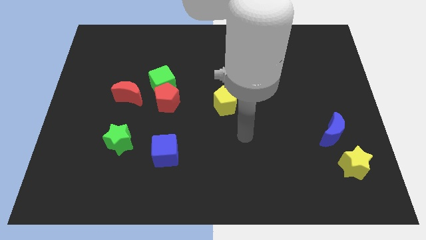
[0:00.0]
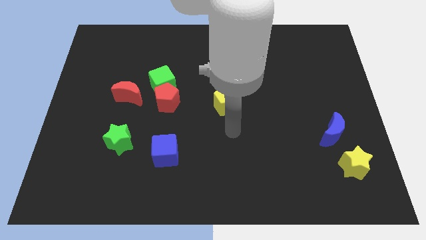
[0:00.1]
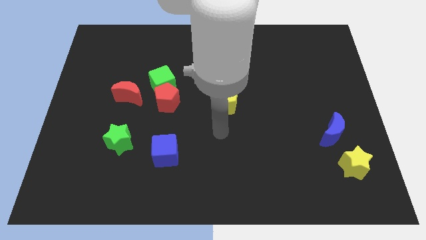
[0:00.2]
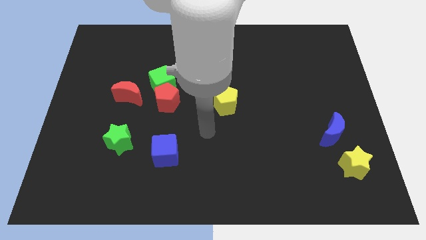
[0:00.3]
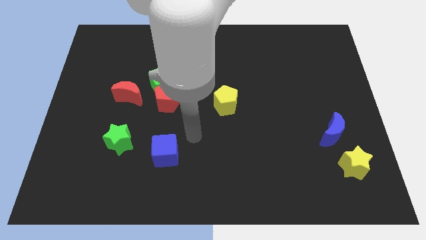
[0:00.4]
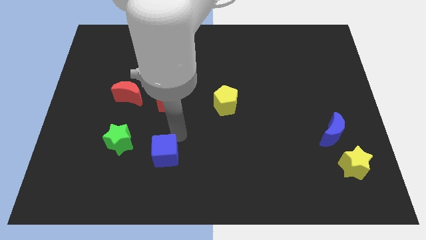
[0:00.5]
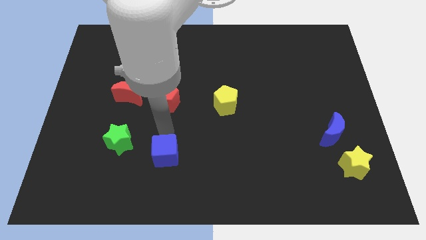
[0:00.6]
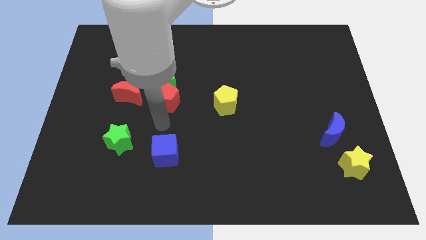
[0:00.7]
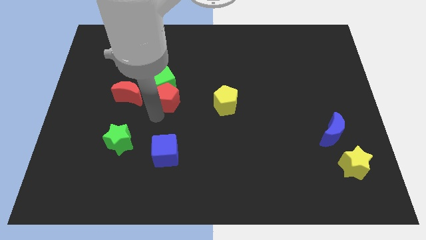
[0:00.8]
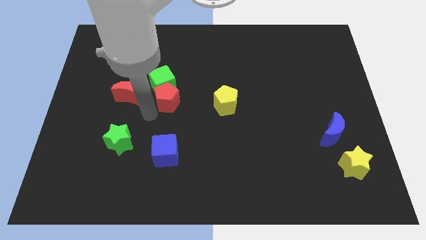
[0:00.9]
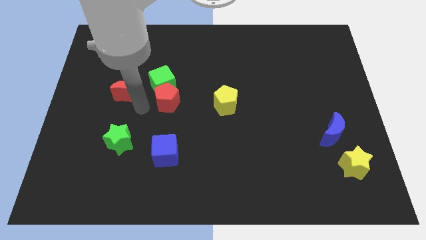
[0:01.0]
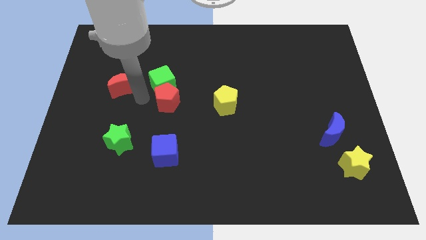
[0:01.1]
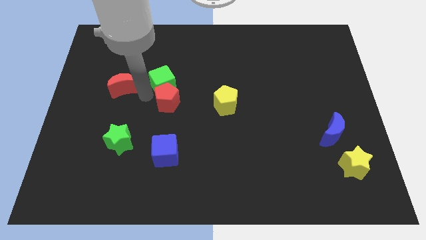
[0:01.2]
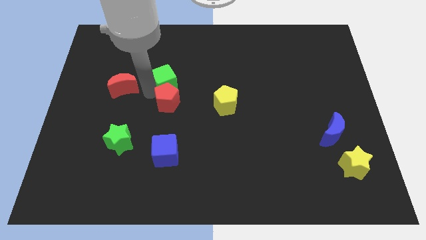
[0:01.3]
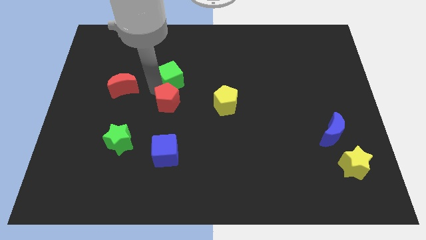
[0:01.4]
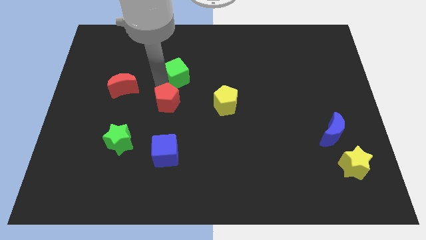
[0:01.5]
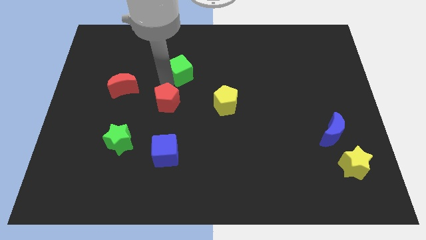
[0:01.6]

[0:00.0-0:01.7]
move the green cube away from the red pentagon and red moon

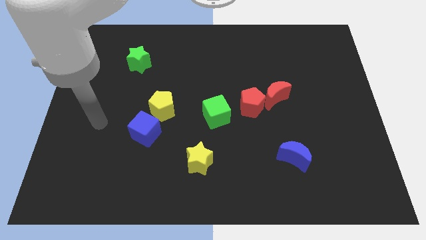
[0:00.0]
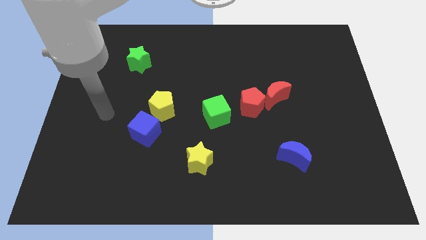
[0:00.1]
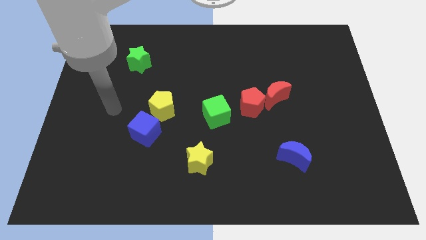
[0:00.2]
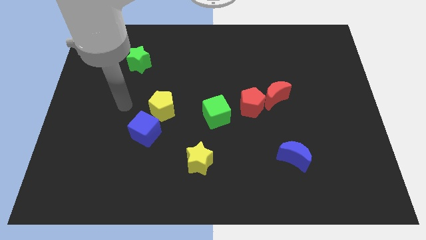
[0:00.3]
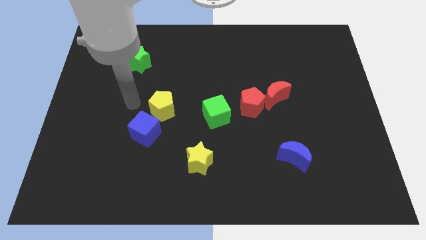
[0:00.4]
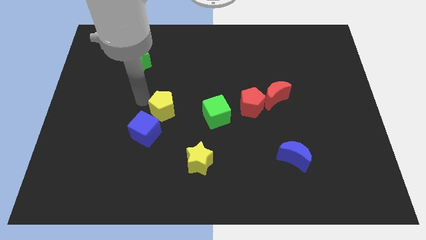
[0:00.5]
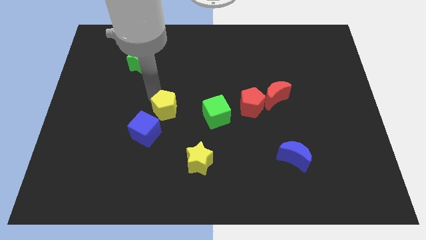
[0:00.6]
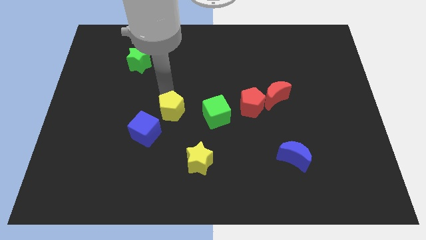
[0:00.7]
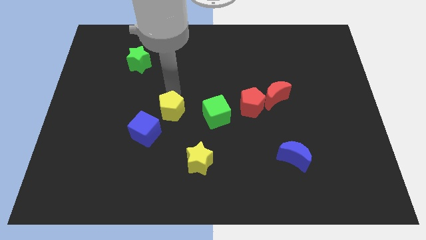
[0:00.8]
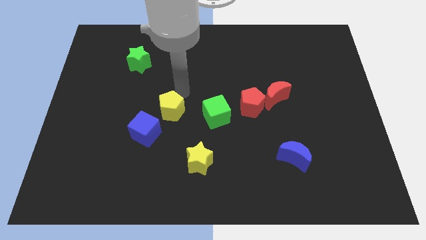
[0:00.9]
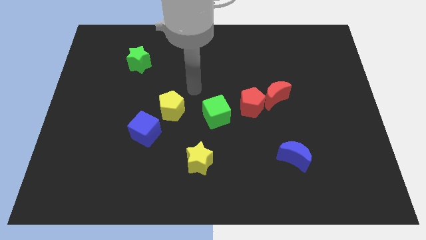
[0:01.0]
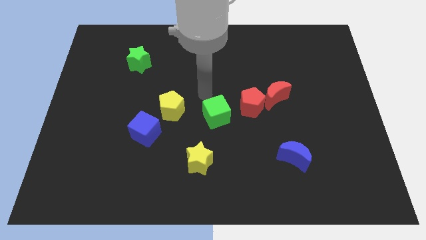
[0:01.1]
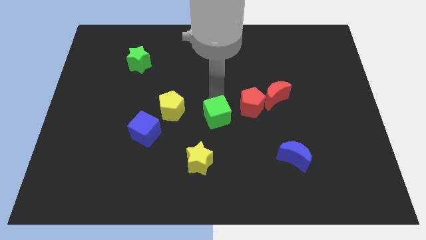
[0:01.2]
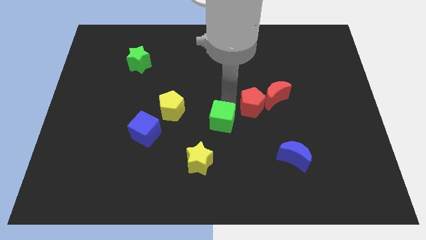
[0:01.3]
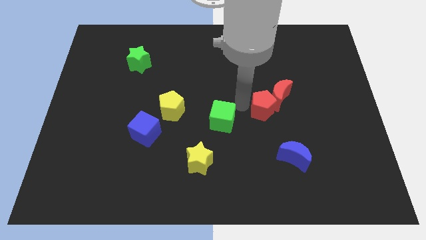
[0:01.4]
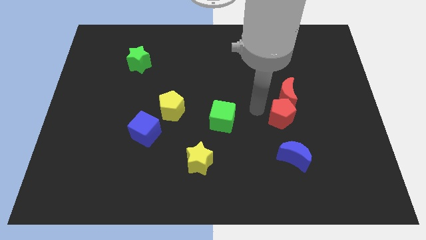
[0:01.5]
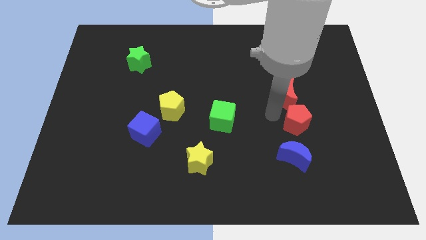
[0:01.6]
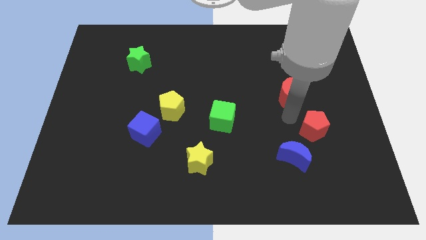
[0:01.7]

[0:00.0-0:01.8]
separate the red moon from the red pentagon

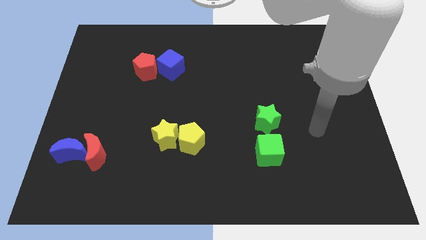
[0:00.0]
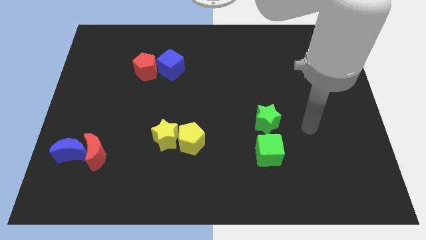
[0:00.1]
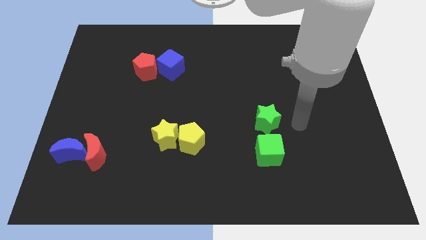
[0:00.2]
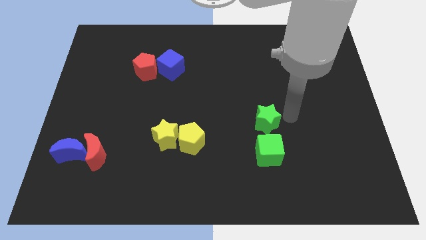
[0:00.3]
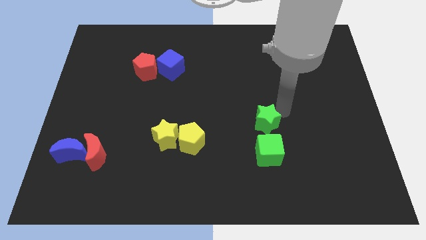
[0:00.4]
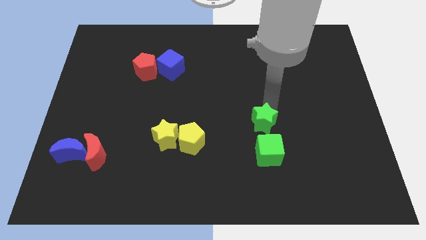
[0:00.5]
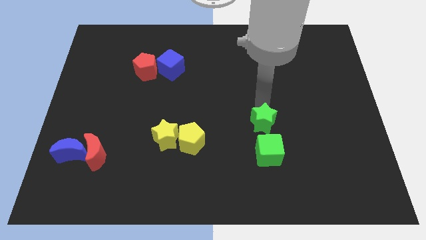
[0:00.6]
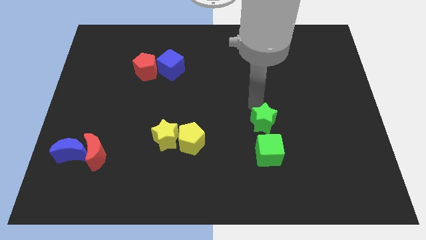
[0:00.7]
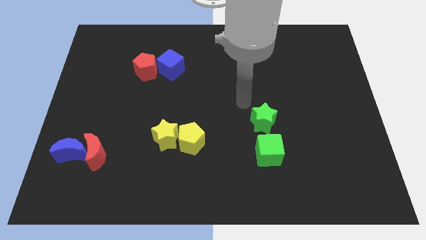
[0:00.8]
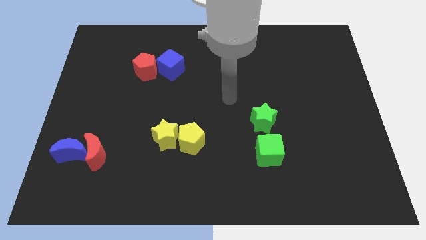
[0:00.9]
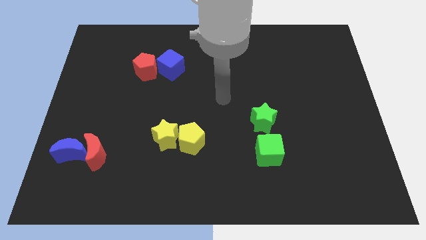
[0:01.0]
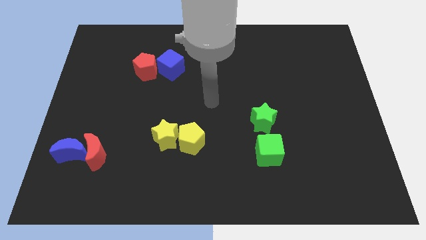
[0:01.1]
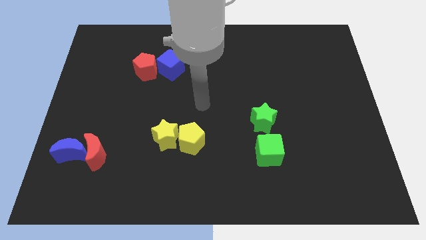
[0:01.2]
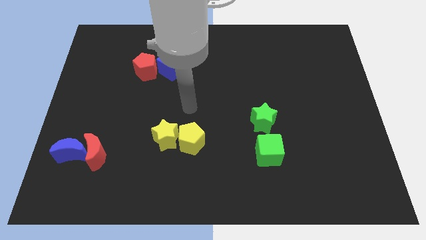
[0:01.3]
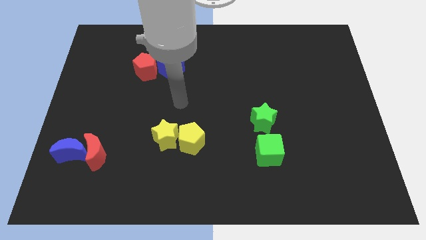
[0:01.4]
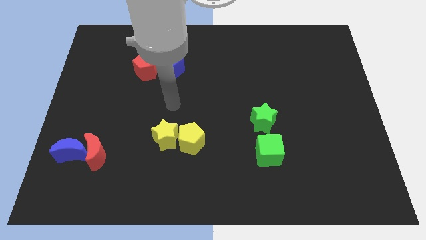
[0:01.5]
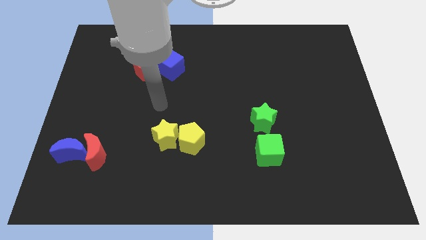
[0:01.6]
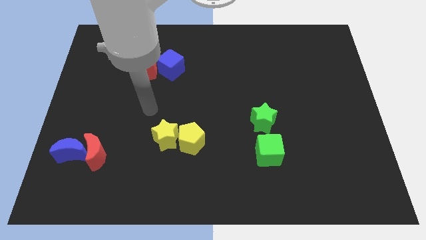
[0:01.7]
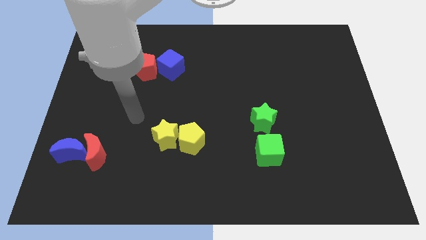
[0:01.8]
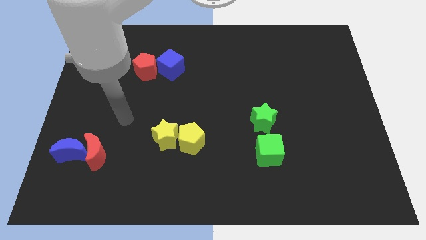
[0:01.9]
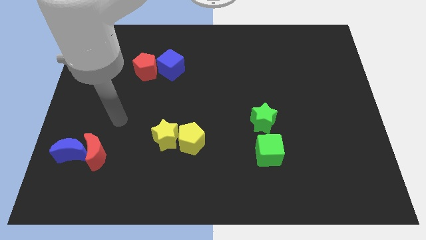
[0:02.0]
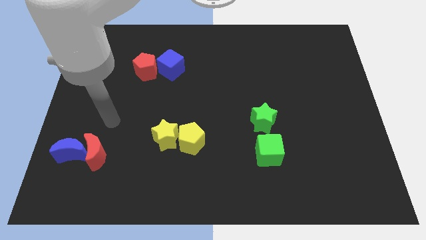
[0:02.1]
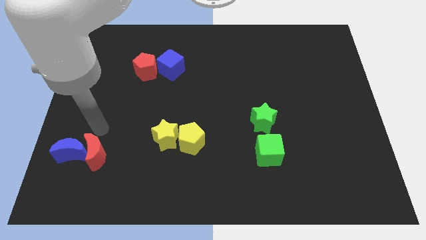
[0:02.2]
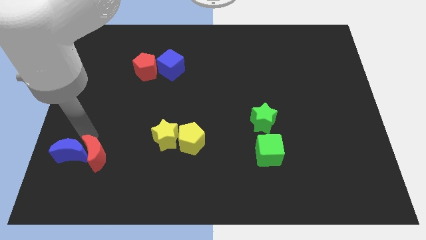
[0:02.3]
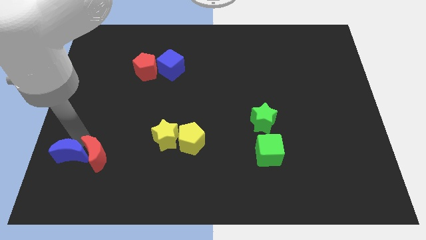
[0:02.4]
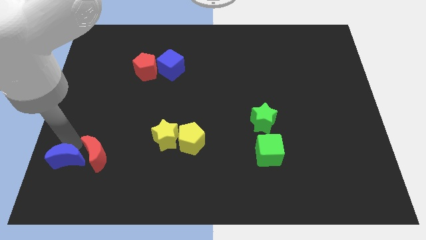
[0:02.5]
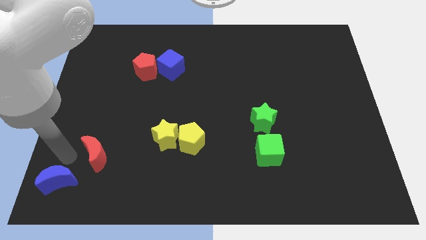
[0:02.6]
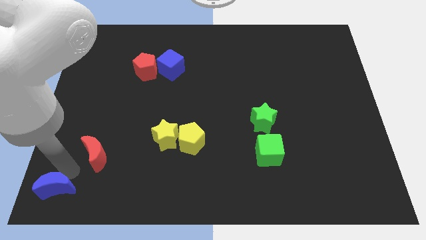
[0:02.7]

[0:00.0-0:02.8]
separate the red moon from the blue moon

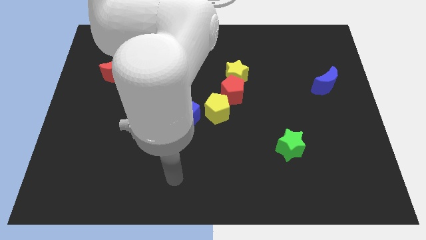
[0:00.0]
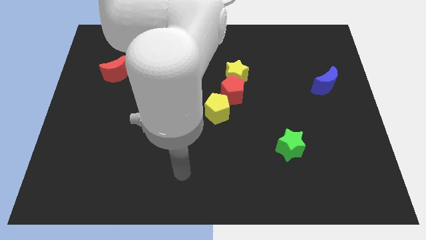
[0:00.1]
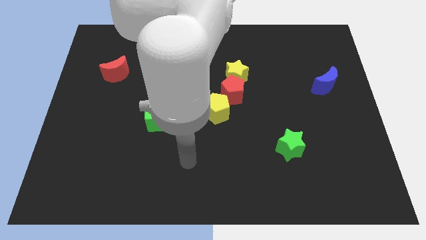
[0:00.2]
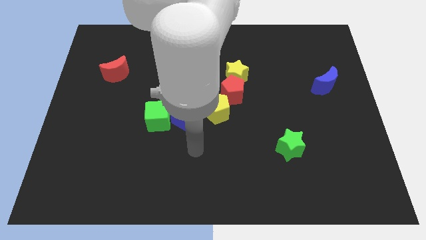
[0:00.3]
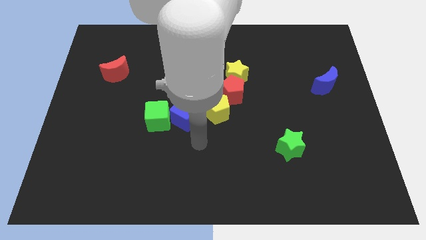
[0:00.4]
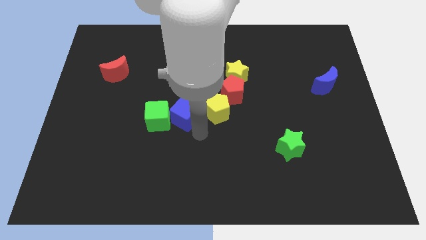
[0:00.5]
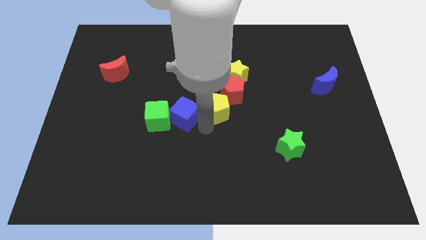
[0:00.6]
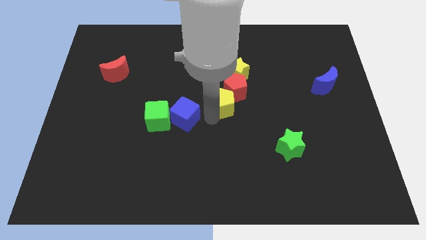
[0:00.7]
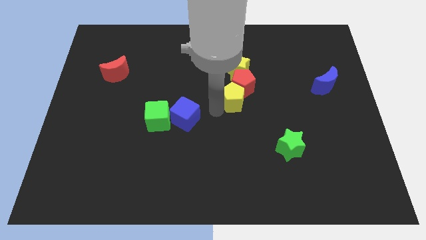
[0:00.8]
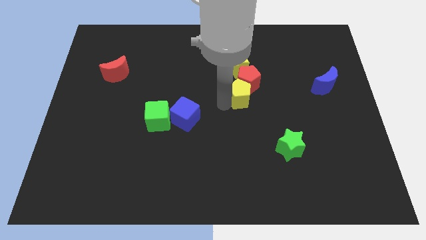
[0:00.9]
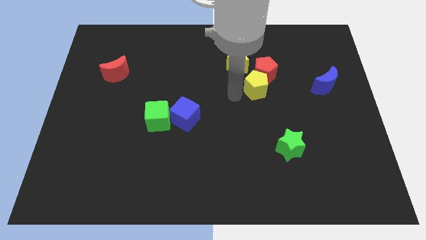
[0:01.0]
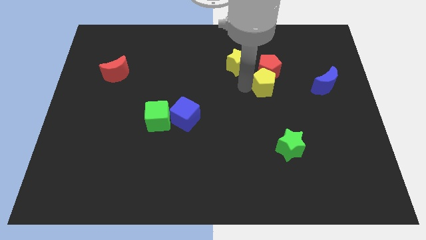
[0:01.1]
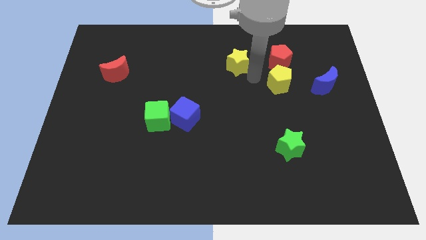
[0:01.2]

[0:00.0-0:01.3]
move the yellow star away from the red pentagon

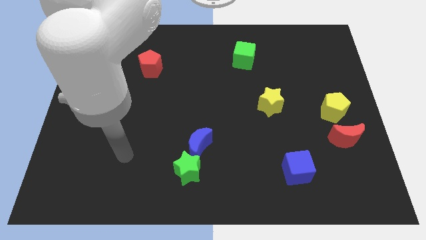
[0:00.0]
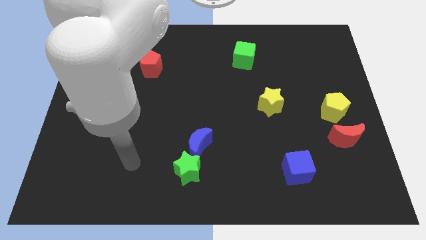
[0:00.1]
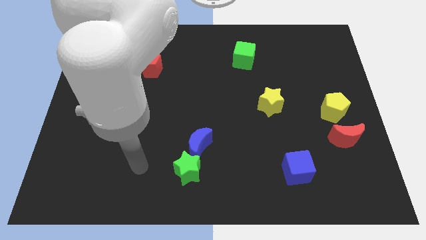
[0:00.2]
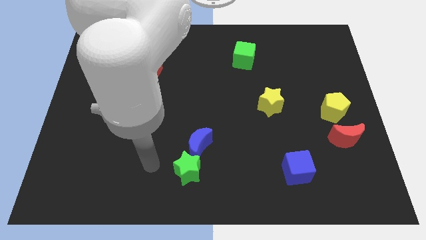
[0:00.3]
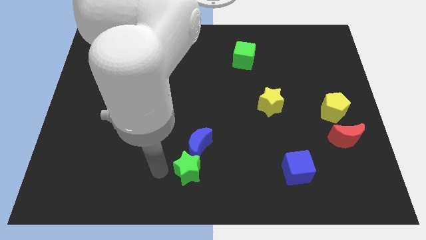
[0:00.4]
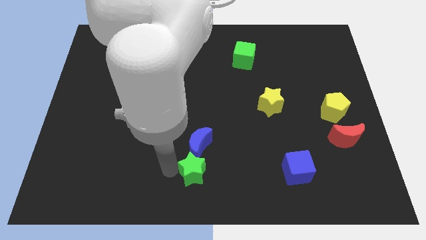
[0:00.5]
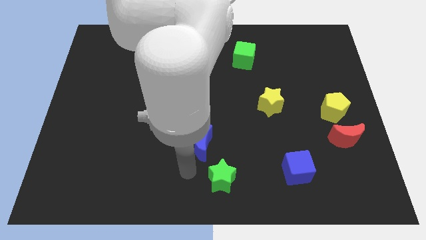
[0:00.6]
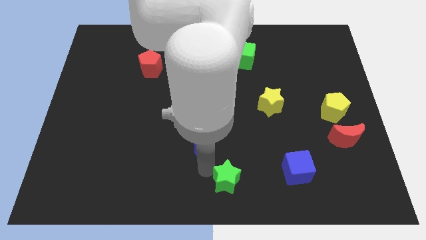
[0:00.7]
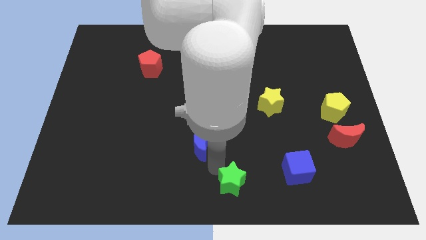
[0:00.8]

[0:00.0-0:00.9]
move the blue moon away from the green star

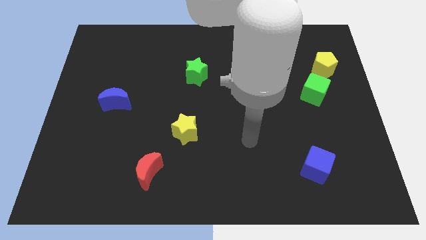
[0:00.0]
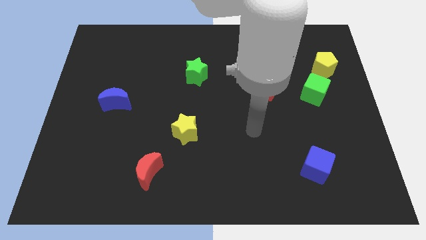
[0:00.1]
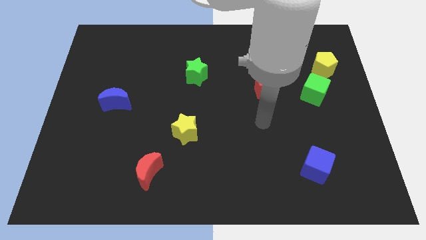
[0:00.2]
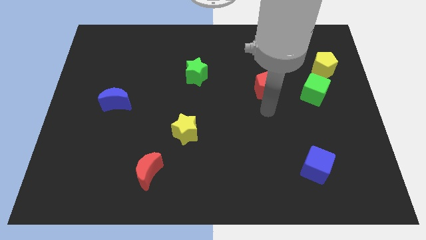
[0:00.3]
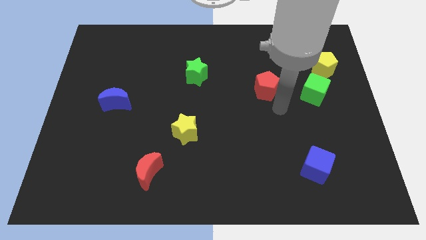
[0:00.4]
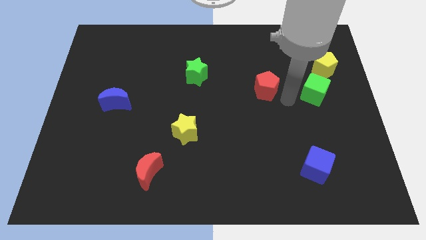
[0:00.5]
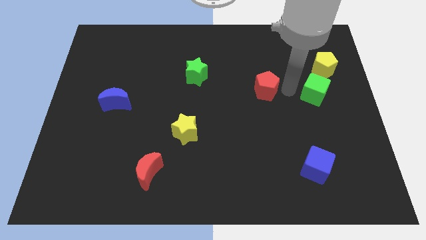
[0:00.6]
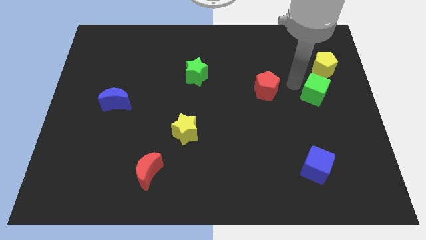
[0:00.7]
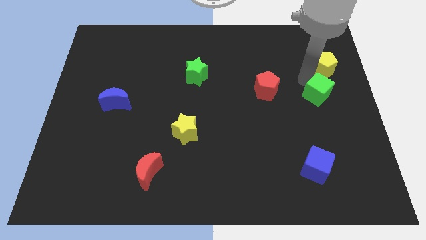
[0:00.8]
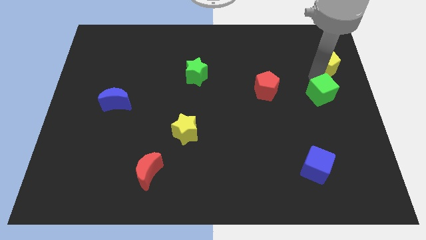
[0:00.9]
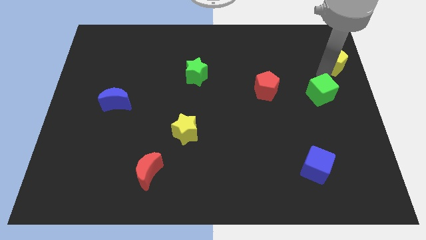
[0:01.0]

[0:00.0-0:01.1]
separate the green cube from the yellow pentagon
